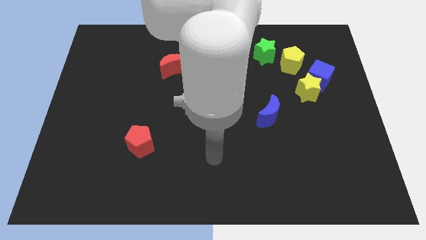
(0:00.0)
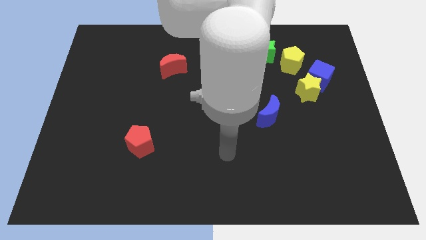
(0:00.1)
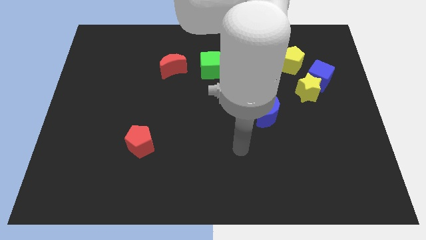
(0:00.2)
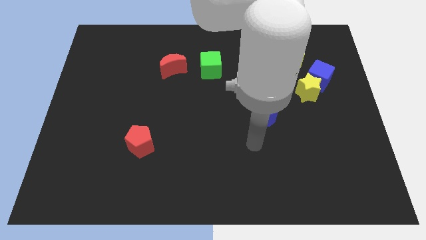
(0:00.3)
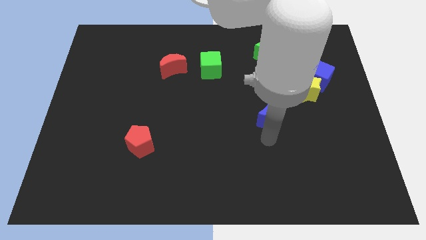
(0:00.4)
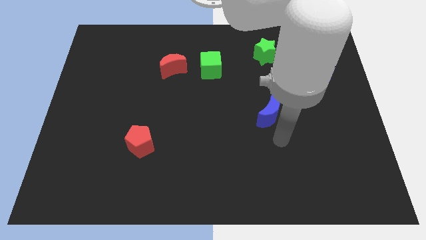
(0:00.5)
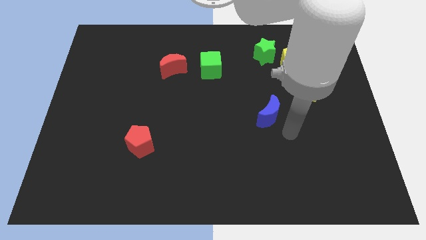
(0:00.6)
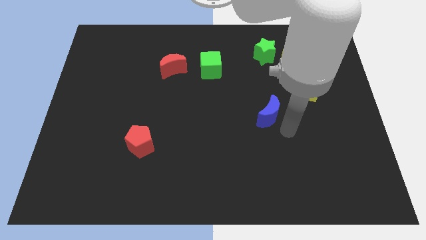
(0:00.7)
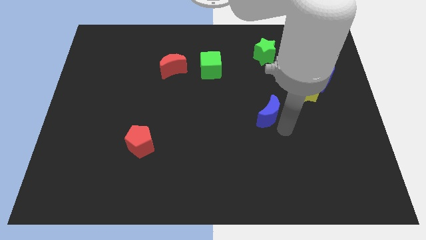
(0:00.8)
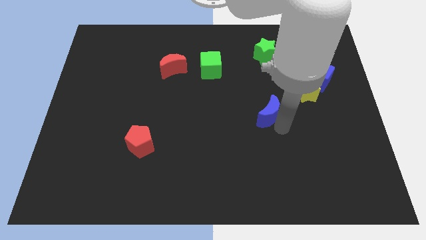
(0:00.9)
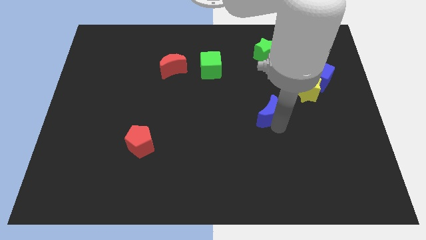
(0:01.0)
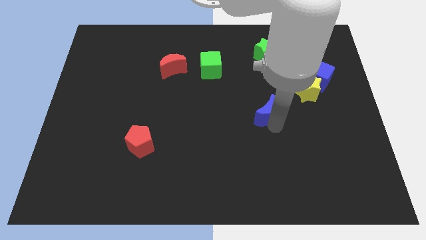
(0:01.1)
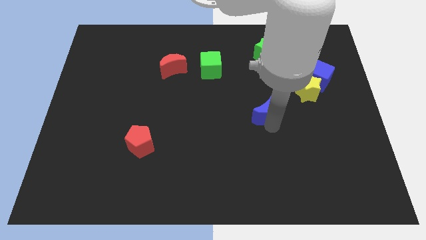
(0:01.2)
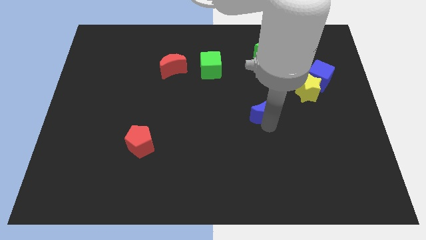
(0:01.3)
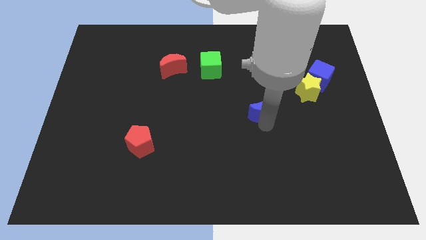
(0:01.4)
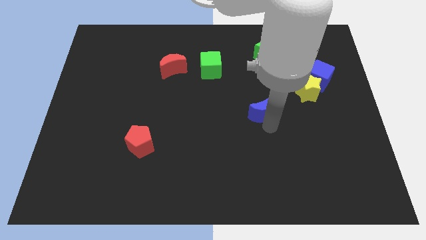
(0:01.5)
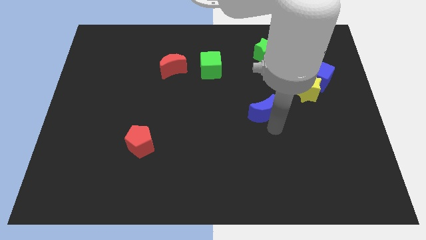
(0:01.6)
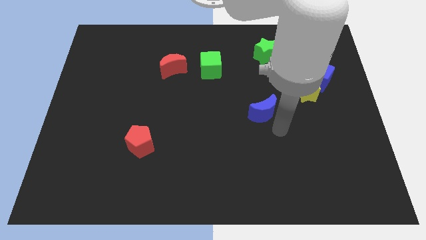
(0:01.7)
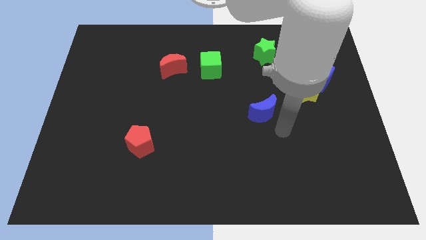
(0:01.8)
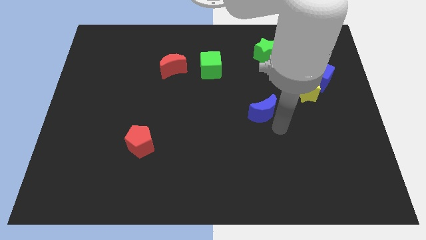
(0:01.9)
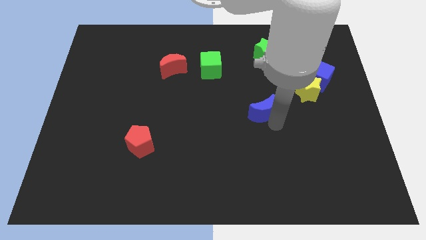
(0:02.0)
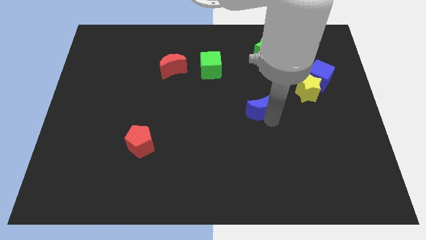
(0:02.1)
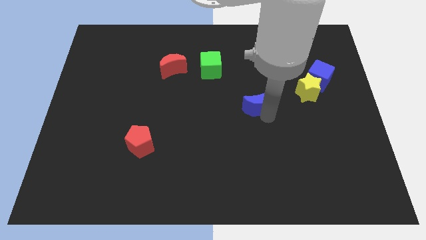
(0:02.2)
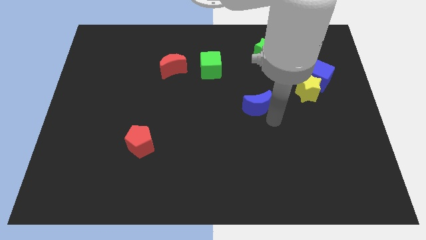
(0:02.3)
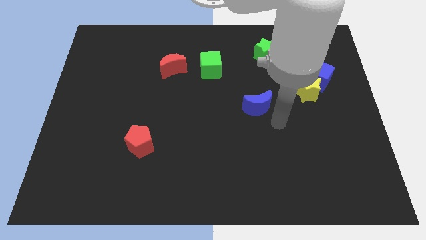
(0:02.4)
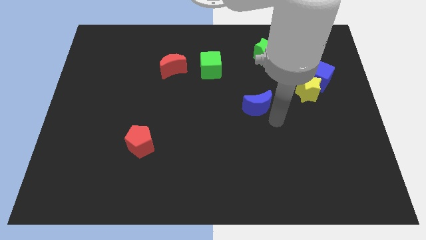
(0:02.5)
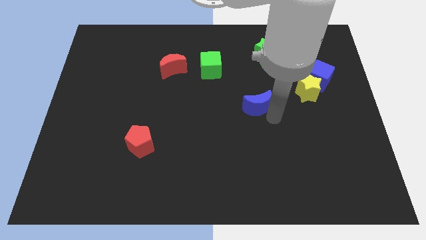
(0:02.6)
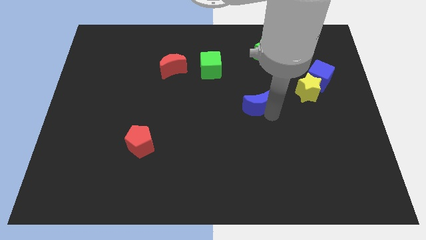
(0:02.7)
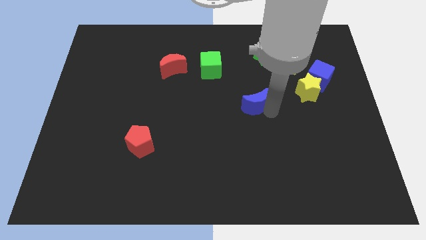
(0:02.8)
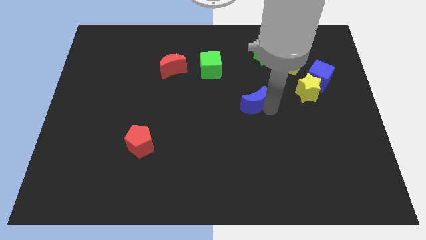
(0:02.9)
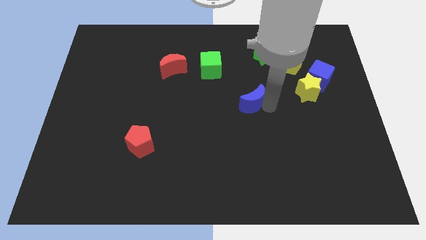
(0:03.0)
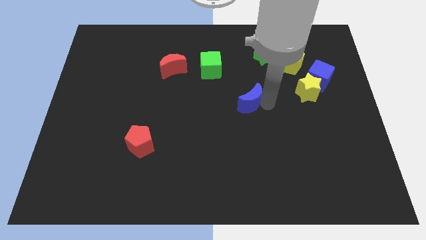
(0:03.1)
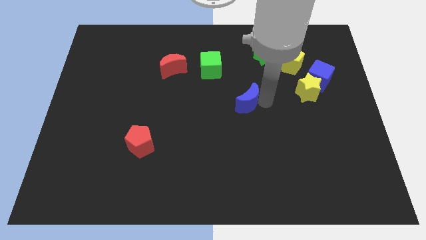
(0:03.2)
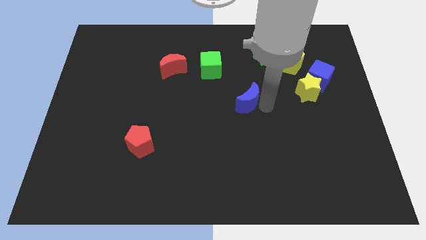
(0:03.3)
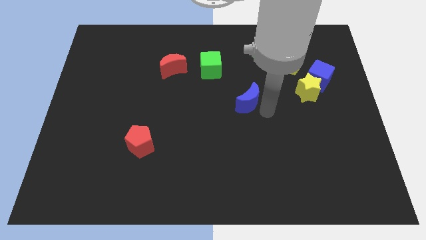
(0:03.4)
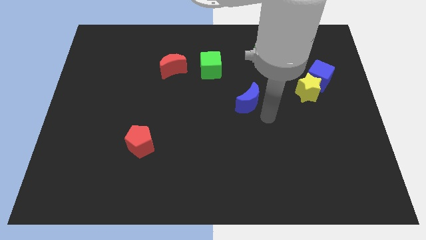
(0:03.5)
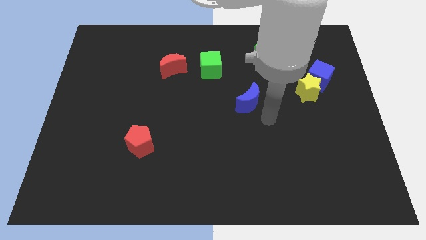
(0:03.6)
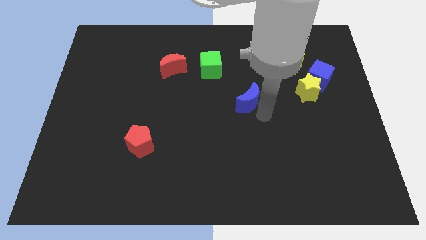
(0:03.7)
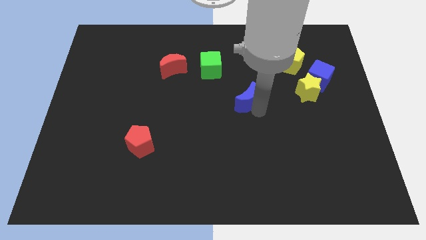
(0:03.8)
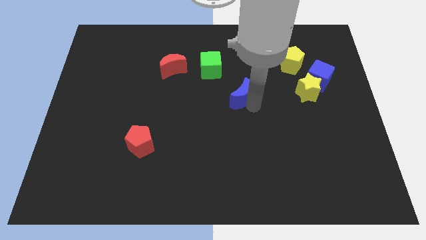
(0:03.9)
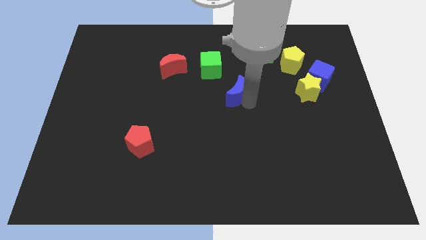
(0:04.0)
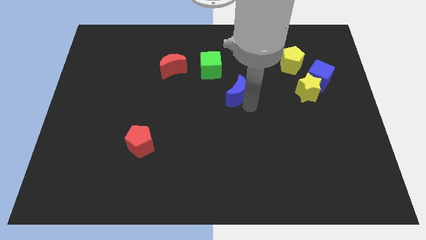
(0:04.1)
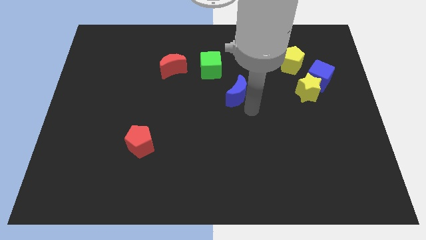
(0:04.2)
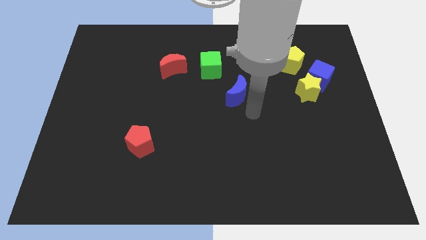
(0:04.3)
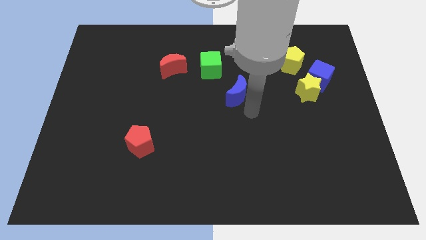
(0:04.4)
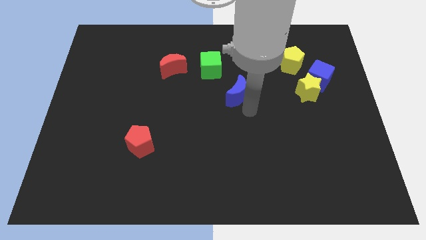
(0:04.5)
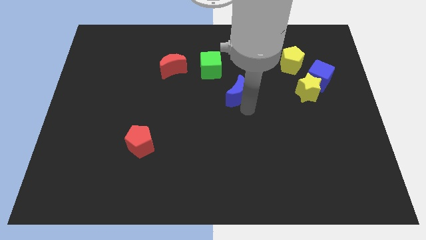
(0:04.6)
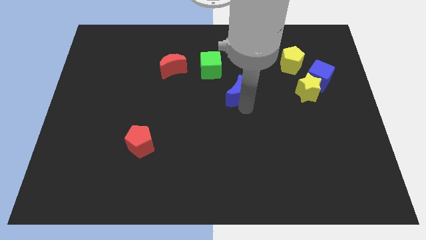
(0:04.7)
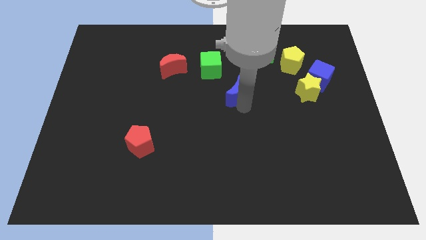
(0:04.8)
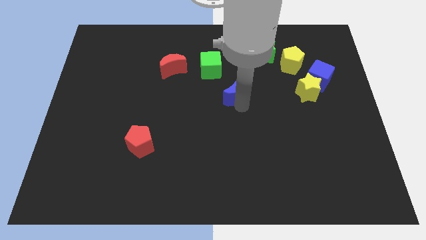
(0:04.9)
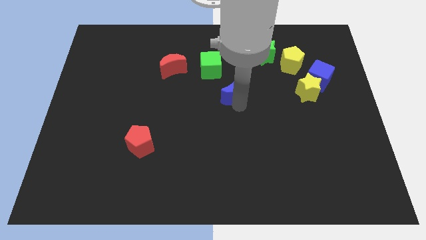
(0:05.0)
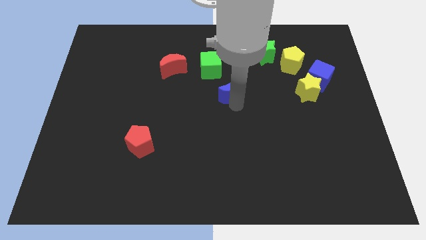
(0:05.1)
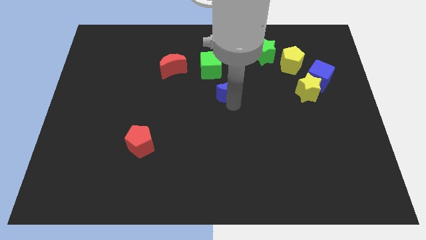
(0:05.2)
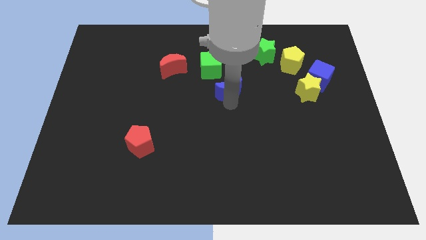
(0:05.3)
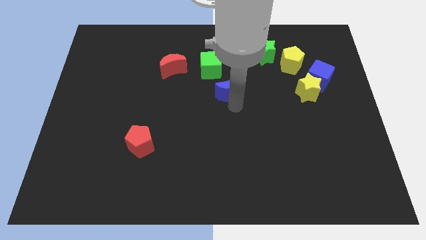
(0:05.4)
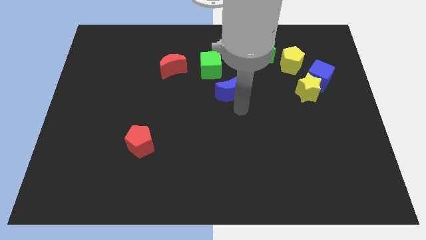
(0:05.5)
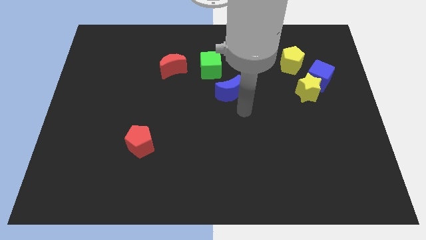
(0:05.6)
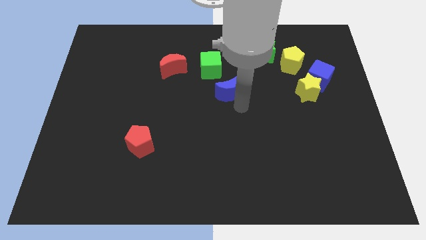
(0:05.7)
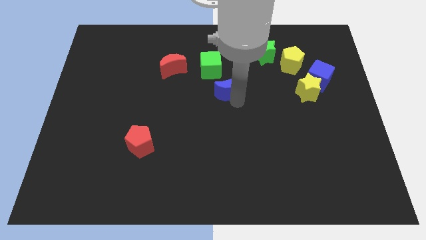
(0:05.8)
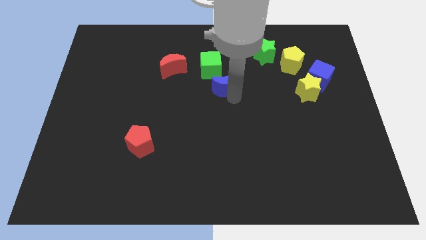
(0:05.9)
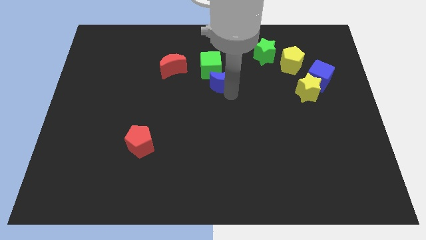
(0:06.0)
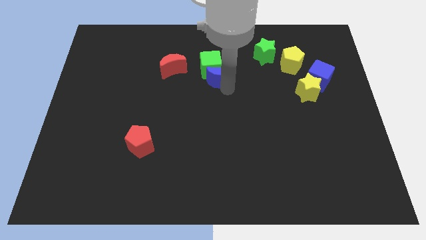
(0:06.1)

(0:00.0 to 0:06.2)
move the blue moon next to the green cube

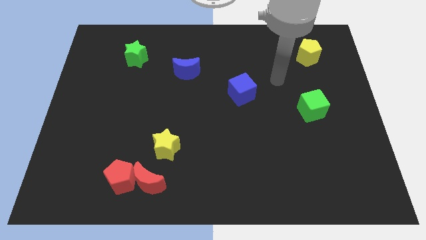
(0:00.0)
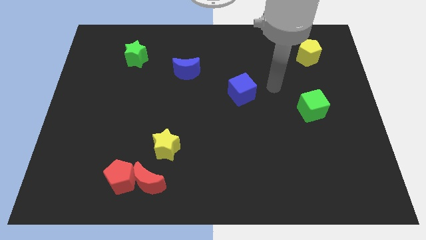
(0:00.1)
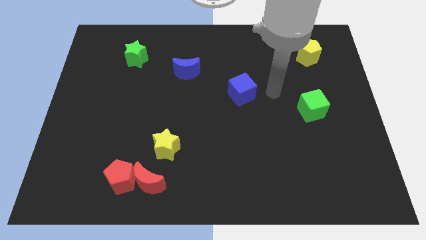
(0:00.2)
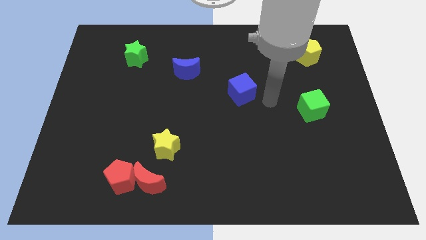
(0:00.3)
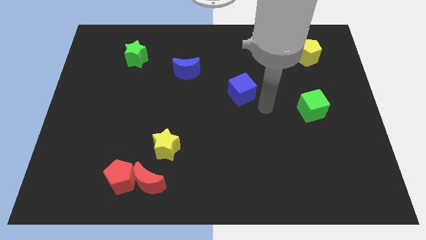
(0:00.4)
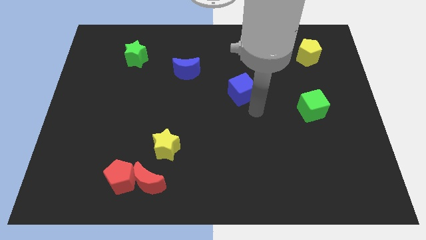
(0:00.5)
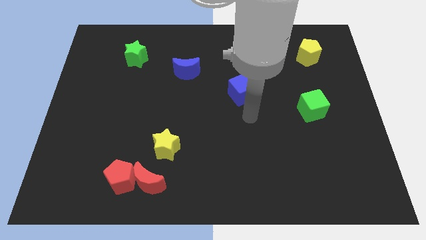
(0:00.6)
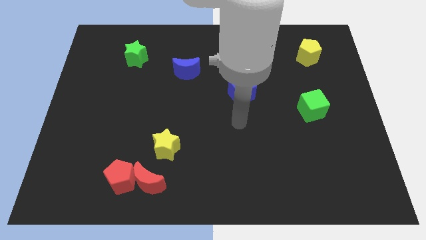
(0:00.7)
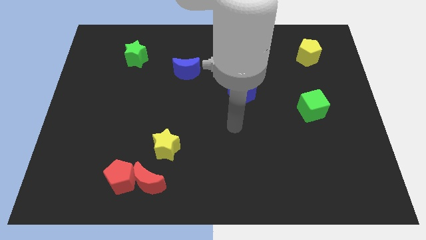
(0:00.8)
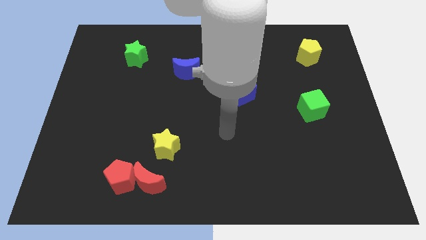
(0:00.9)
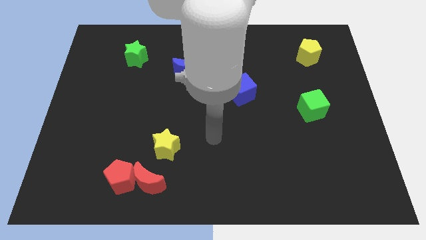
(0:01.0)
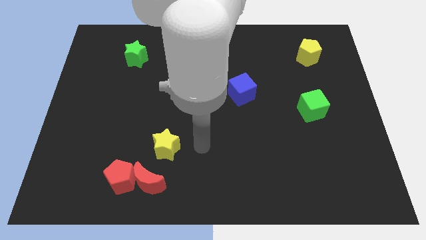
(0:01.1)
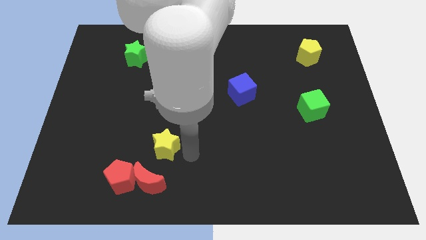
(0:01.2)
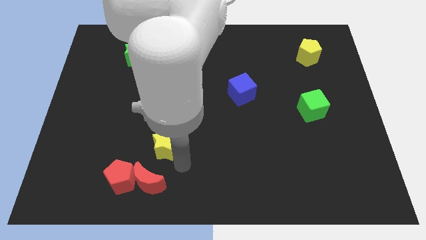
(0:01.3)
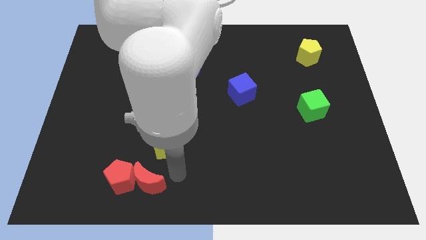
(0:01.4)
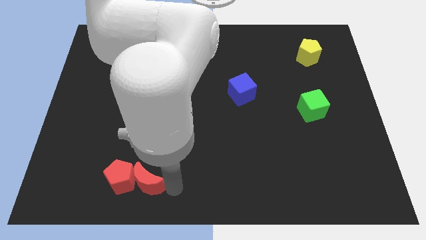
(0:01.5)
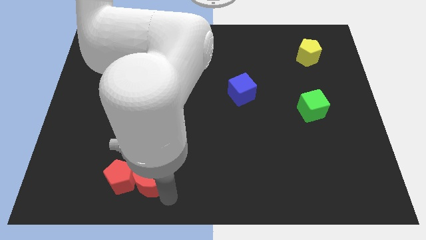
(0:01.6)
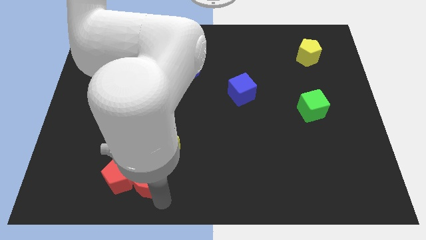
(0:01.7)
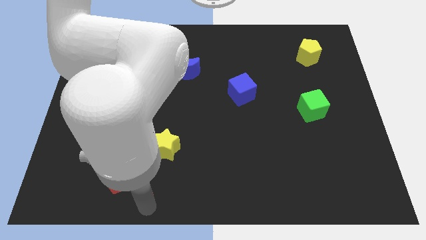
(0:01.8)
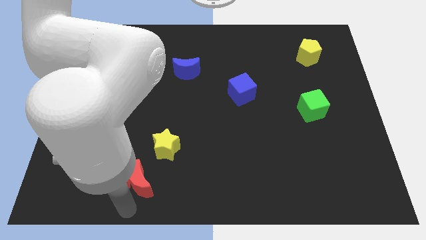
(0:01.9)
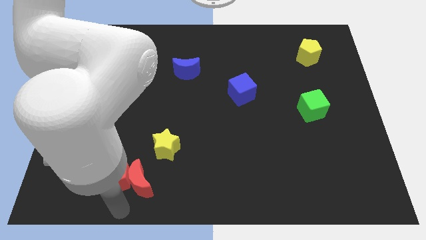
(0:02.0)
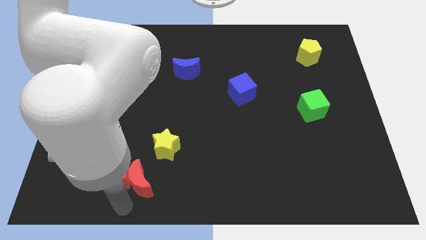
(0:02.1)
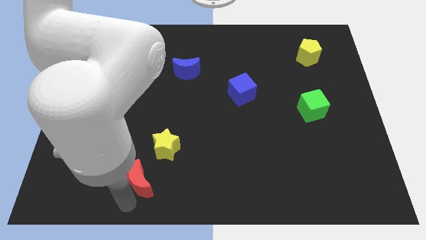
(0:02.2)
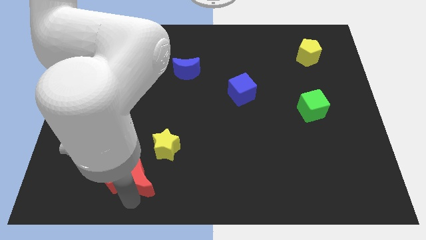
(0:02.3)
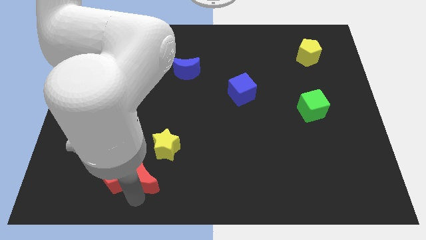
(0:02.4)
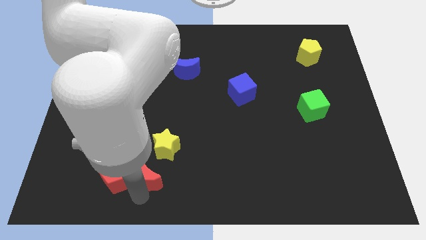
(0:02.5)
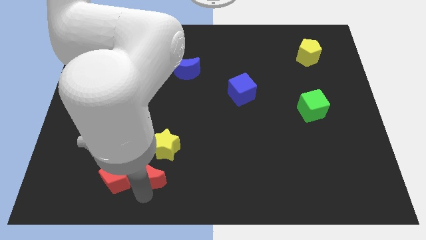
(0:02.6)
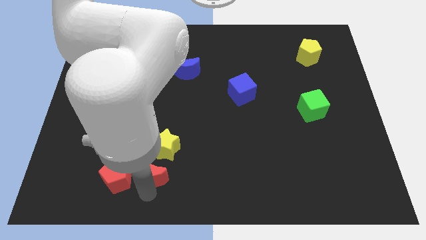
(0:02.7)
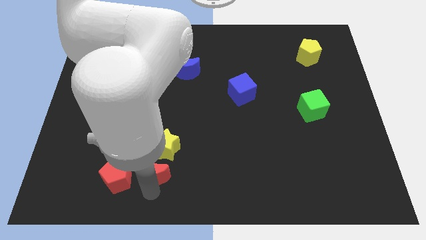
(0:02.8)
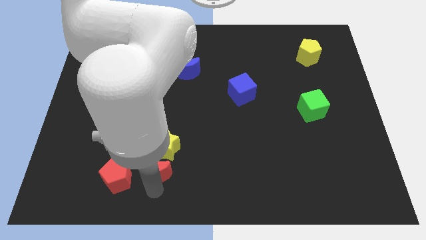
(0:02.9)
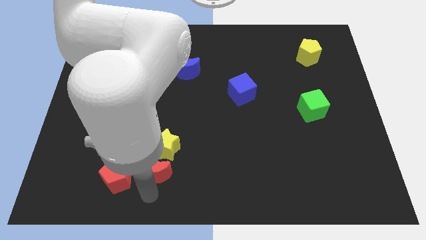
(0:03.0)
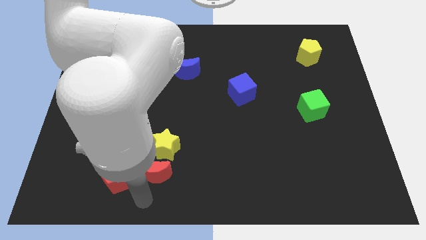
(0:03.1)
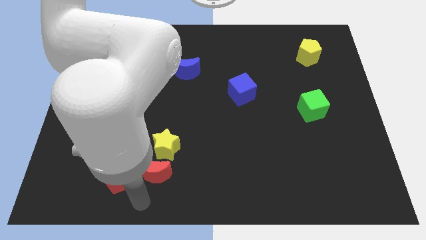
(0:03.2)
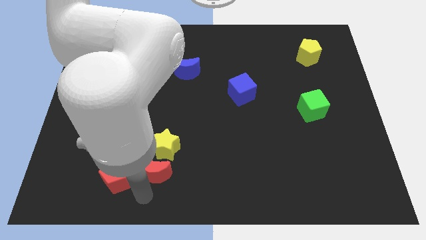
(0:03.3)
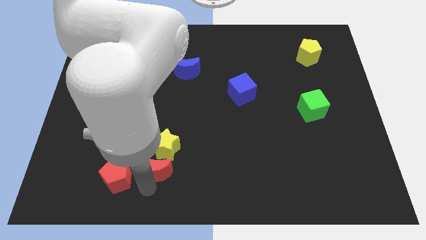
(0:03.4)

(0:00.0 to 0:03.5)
move the red moon next to the yellow star
